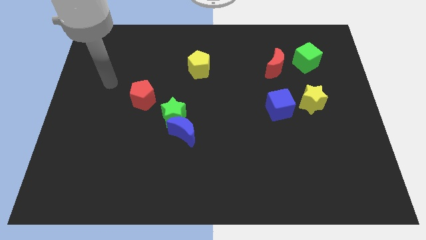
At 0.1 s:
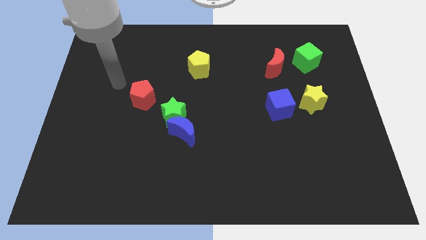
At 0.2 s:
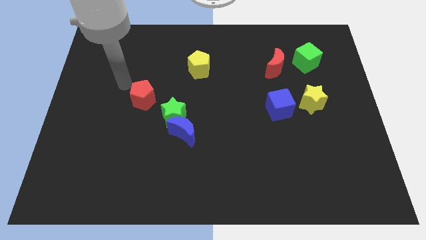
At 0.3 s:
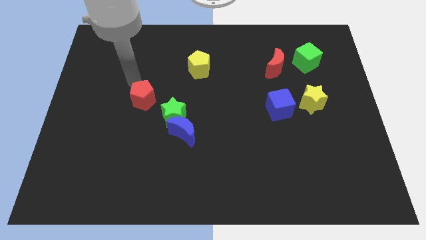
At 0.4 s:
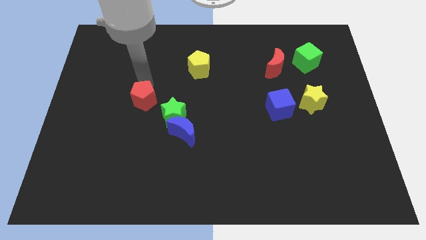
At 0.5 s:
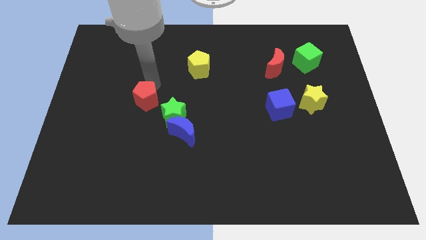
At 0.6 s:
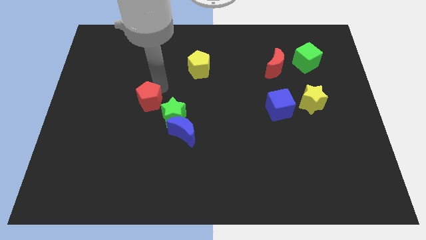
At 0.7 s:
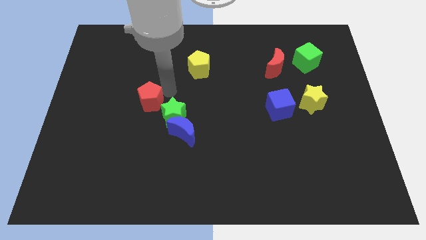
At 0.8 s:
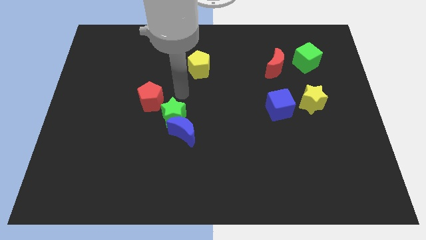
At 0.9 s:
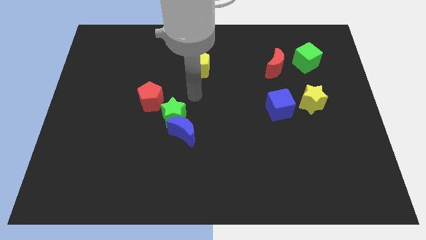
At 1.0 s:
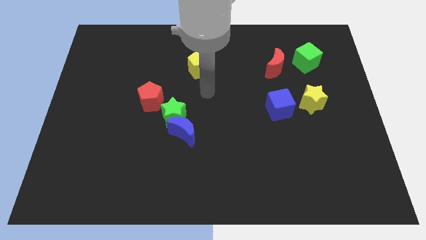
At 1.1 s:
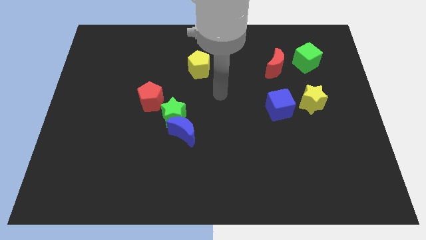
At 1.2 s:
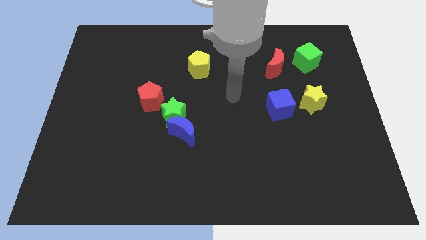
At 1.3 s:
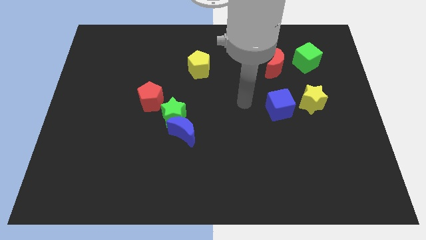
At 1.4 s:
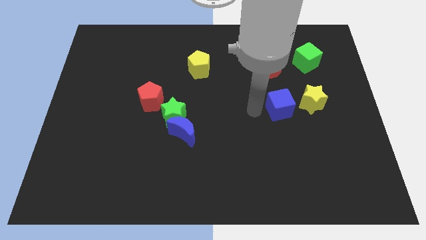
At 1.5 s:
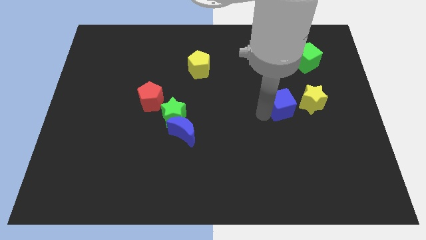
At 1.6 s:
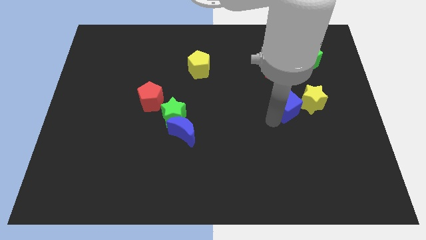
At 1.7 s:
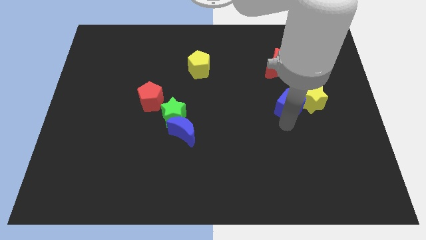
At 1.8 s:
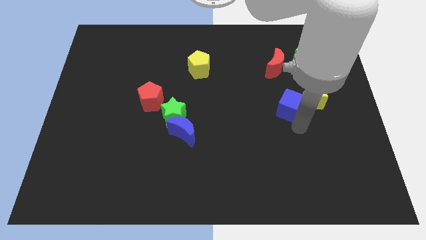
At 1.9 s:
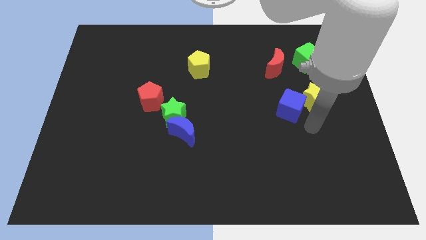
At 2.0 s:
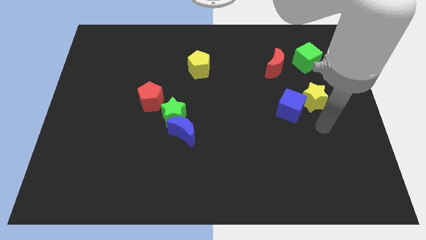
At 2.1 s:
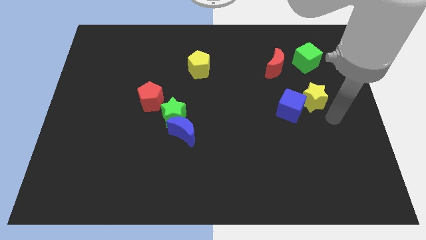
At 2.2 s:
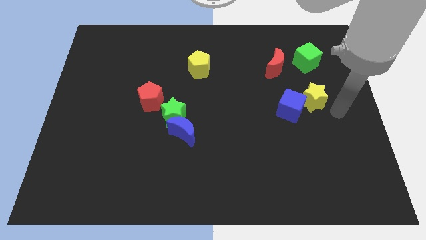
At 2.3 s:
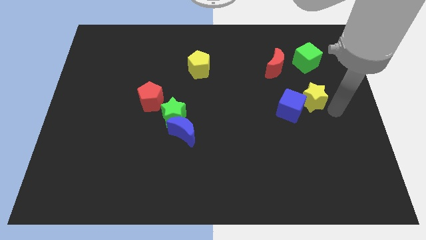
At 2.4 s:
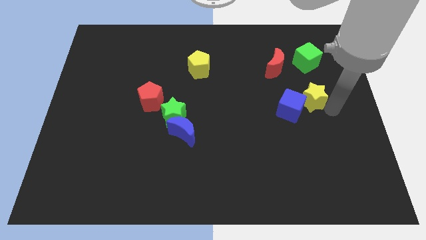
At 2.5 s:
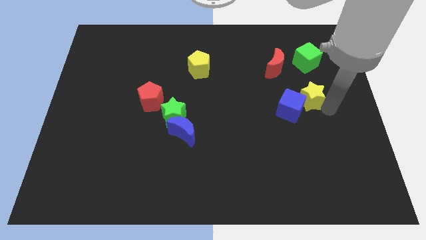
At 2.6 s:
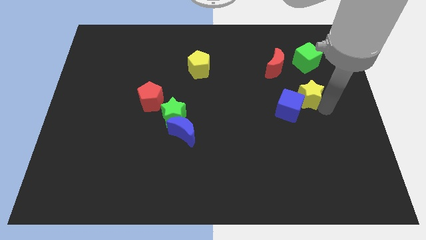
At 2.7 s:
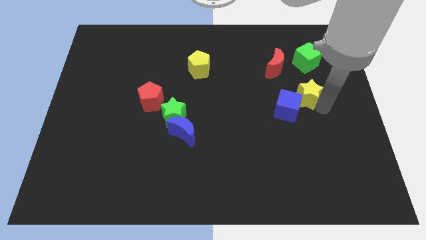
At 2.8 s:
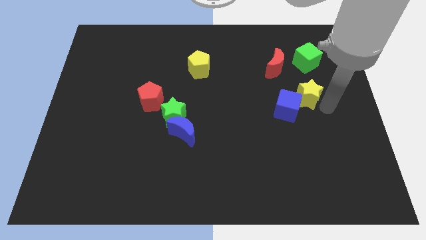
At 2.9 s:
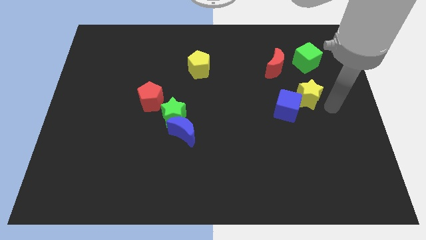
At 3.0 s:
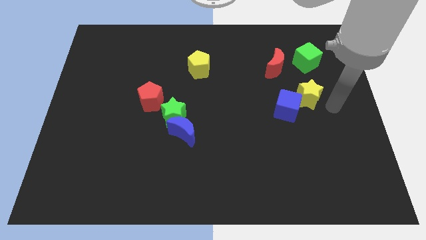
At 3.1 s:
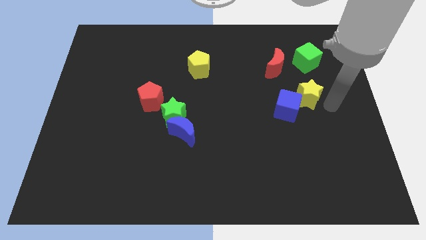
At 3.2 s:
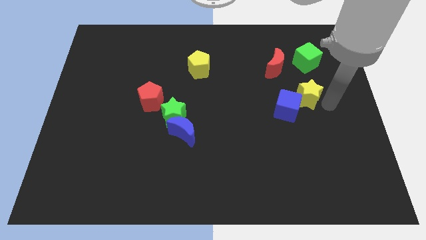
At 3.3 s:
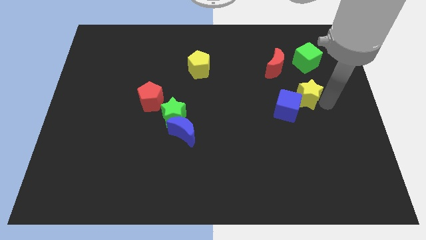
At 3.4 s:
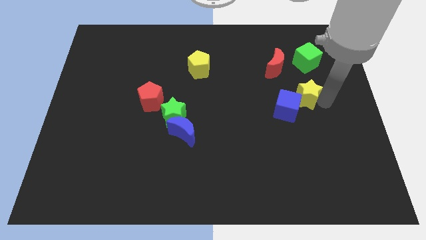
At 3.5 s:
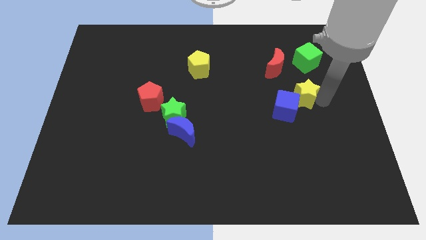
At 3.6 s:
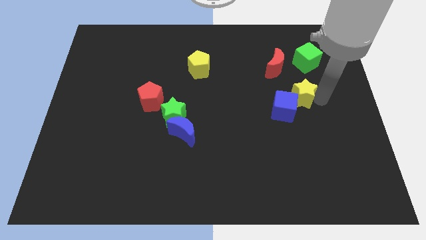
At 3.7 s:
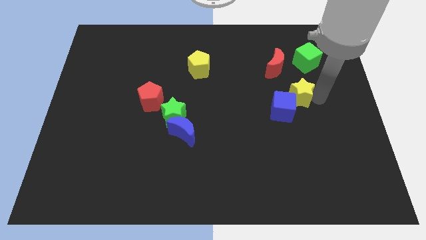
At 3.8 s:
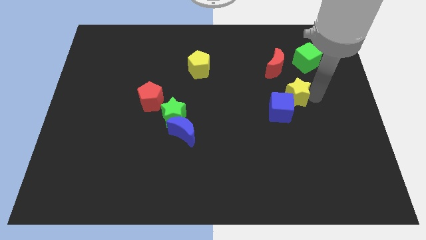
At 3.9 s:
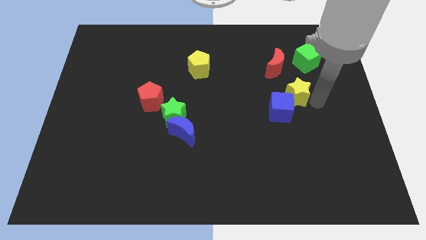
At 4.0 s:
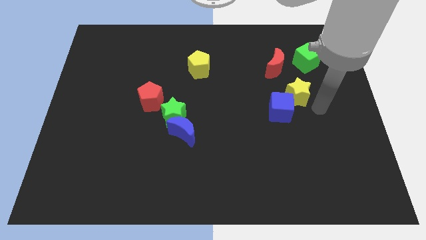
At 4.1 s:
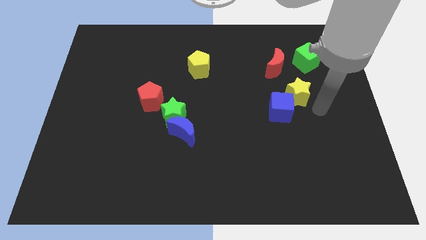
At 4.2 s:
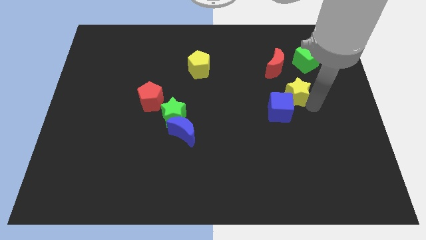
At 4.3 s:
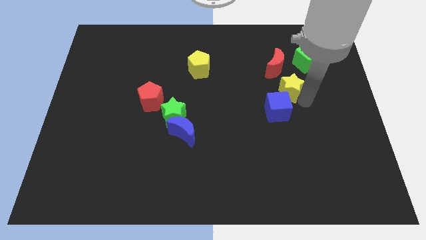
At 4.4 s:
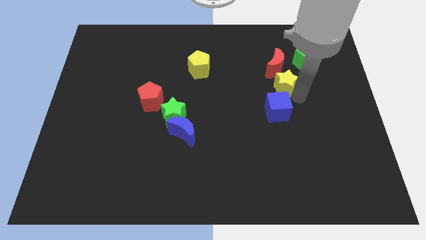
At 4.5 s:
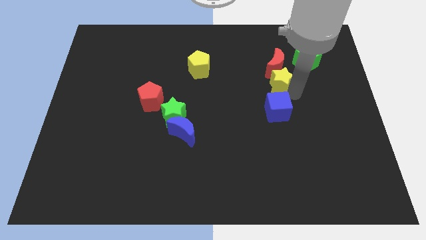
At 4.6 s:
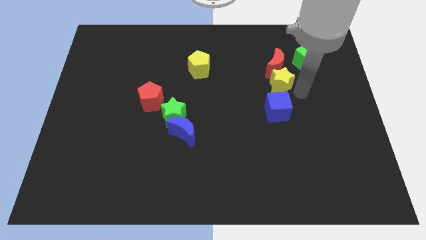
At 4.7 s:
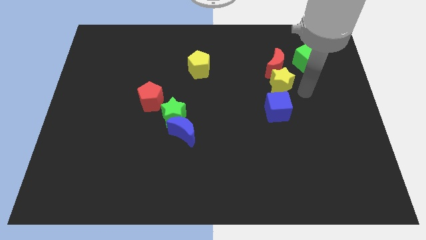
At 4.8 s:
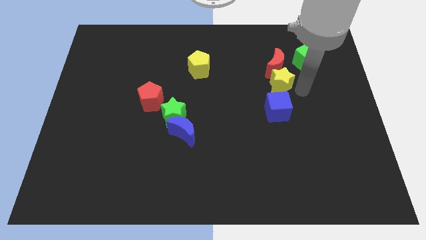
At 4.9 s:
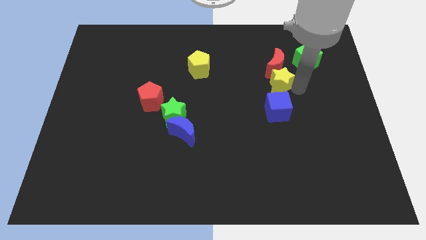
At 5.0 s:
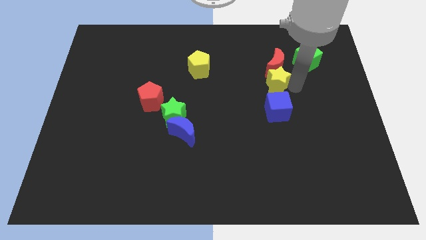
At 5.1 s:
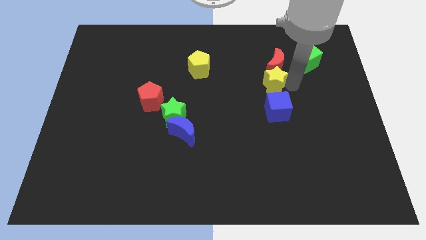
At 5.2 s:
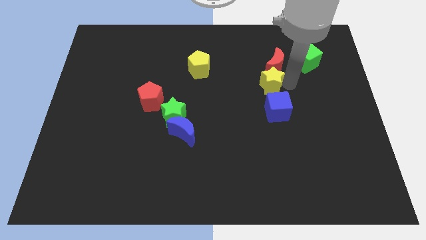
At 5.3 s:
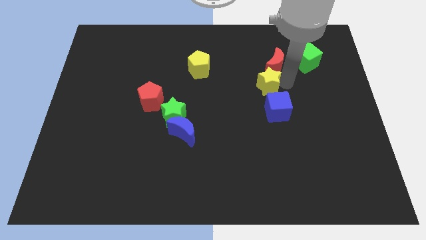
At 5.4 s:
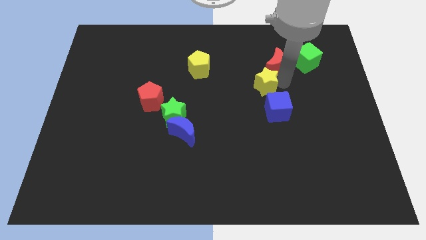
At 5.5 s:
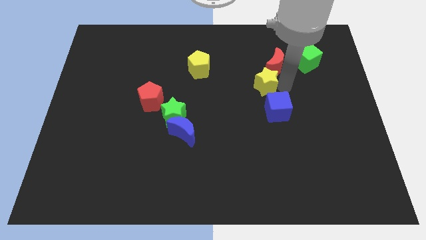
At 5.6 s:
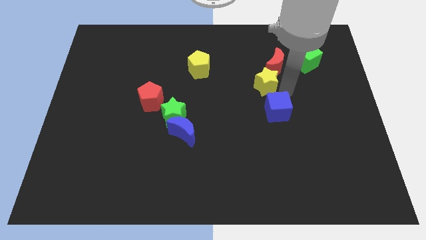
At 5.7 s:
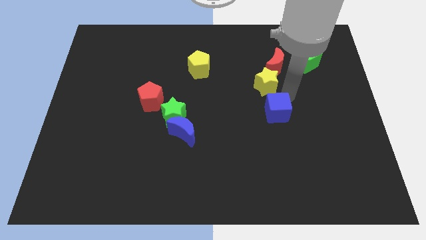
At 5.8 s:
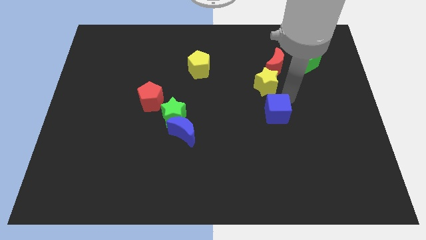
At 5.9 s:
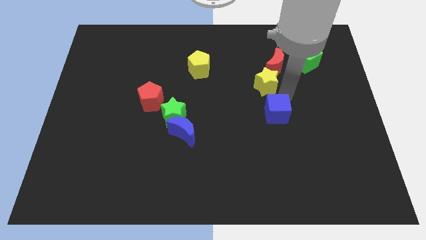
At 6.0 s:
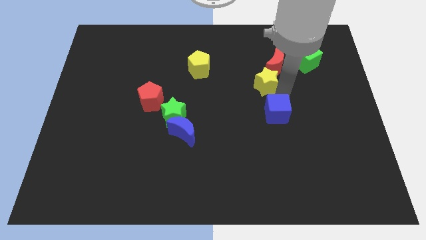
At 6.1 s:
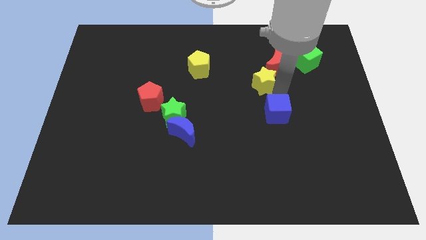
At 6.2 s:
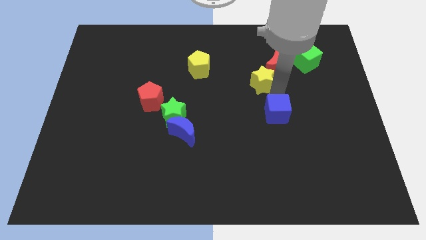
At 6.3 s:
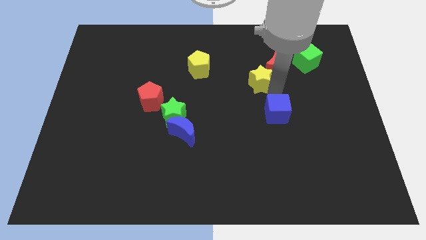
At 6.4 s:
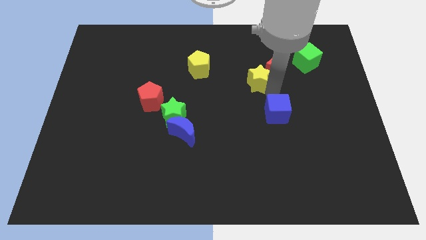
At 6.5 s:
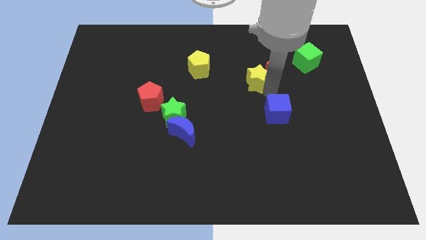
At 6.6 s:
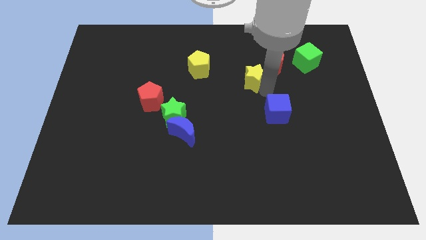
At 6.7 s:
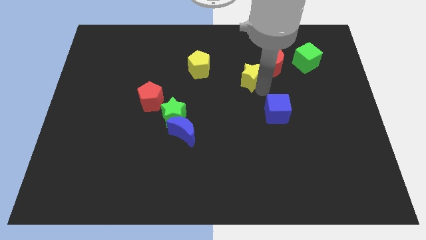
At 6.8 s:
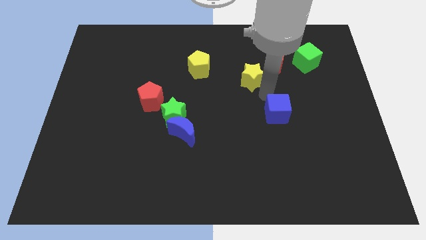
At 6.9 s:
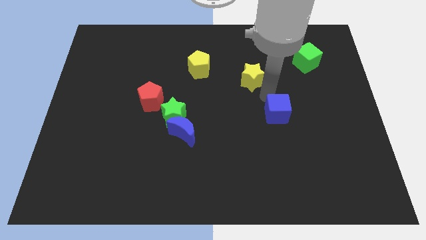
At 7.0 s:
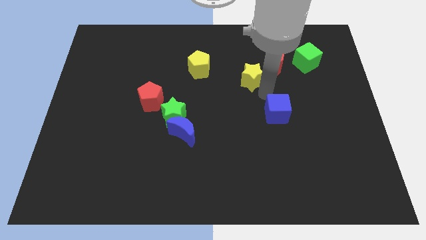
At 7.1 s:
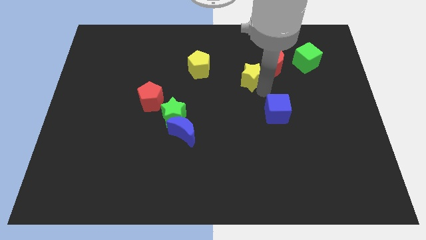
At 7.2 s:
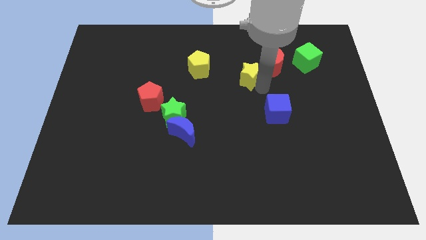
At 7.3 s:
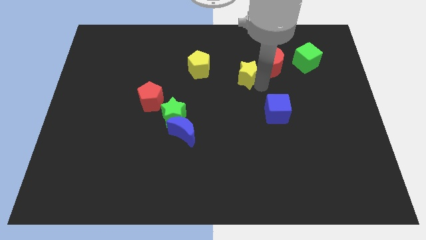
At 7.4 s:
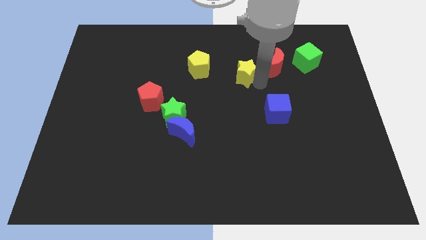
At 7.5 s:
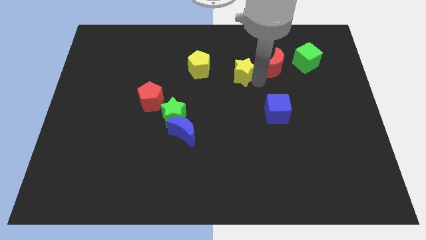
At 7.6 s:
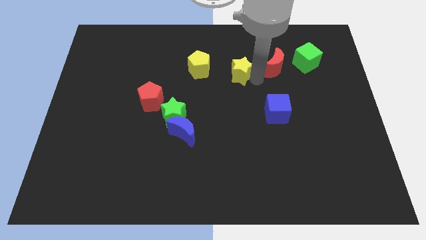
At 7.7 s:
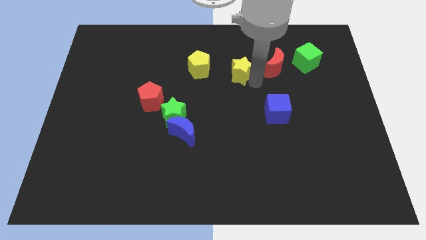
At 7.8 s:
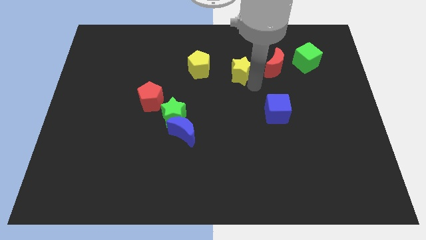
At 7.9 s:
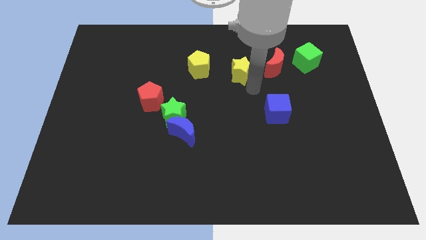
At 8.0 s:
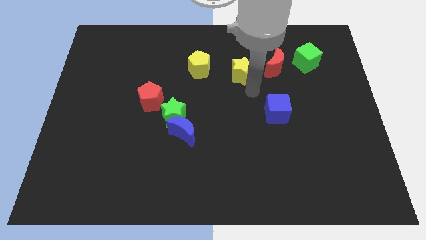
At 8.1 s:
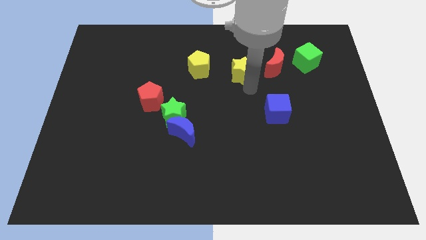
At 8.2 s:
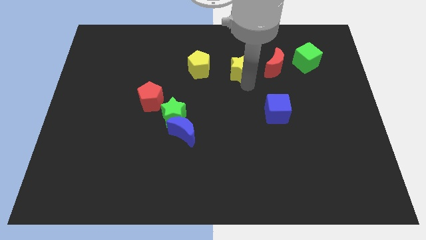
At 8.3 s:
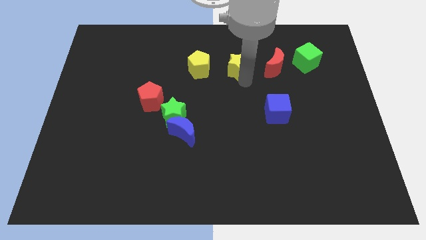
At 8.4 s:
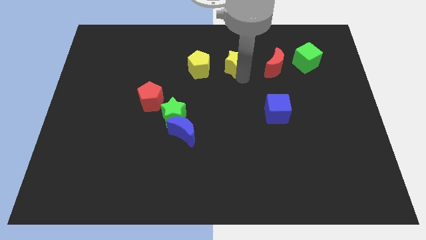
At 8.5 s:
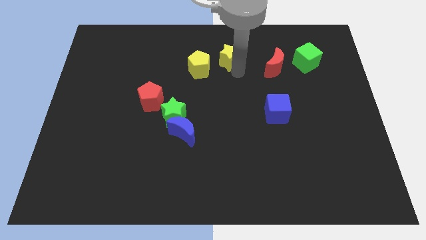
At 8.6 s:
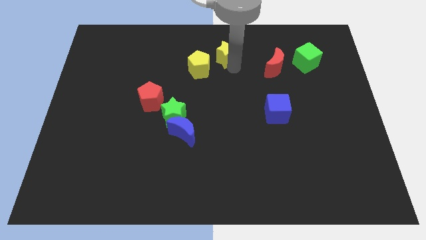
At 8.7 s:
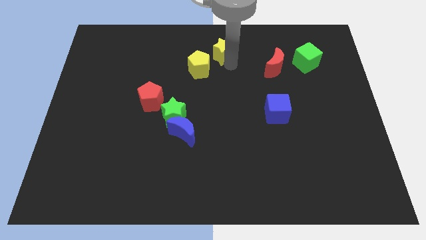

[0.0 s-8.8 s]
push the yellow star to the top side
